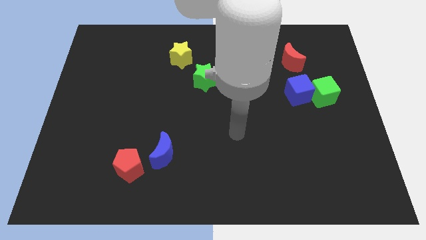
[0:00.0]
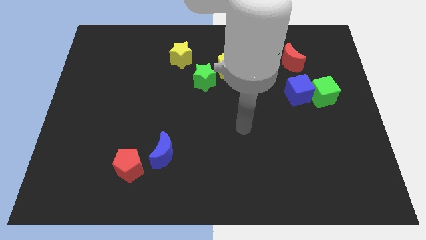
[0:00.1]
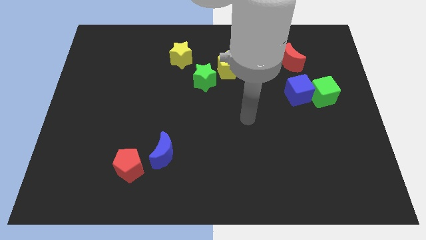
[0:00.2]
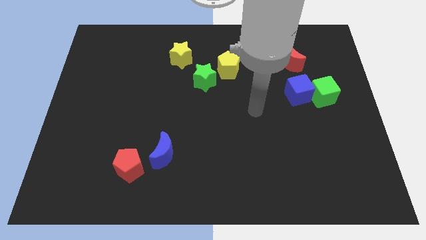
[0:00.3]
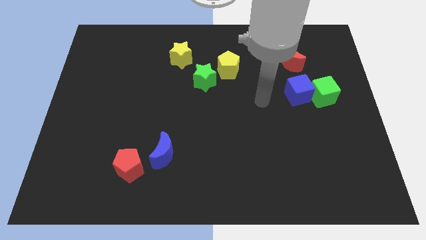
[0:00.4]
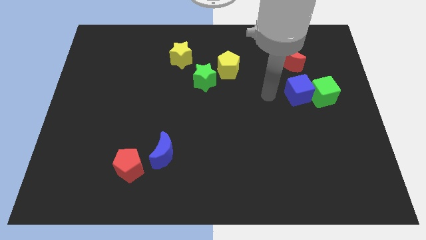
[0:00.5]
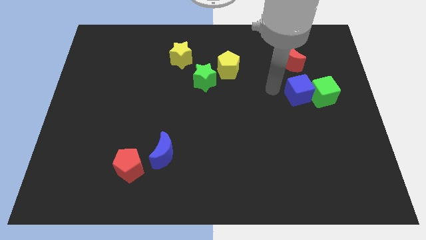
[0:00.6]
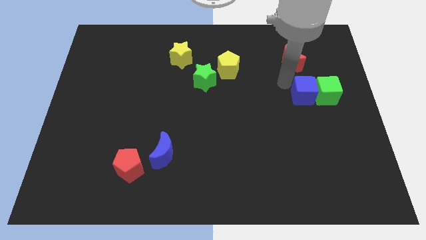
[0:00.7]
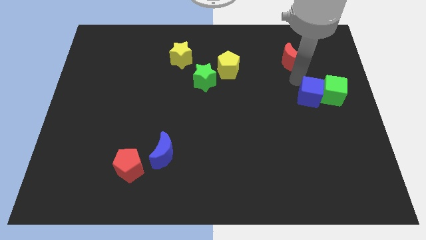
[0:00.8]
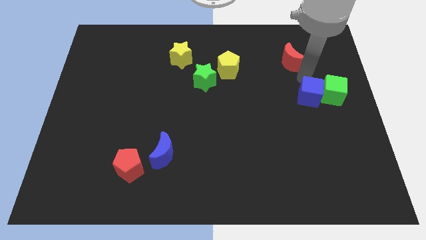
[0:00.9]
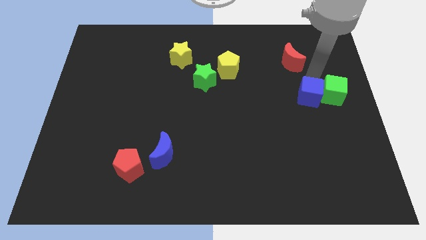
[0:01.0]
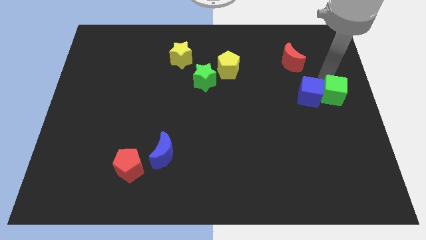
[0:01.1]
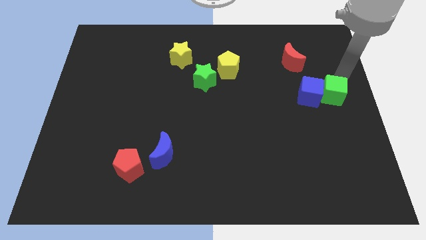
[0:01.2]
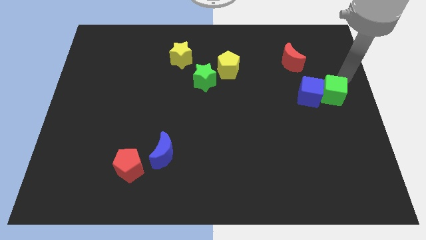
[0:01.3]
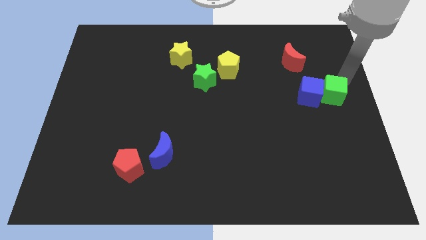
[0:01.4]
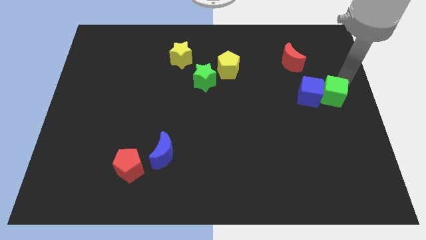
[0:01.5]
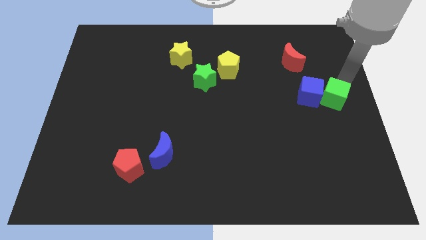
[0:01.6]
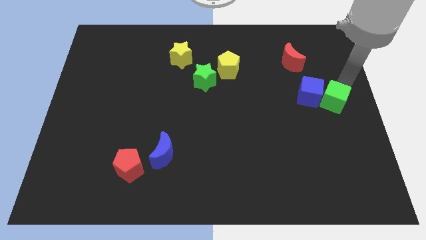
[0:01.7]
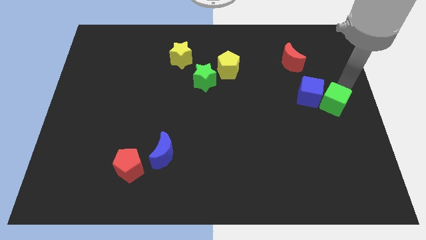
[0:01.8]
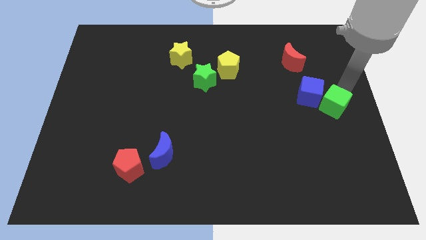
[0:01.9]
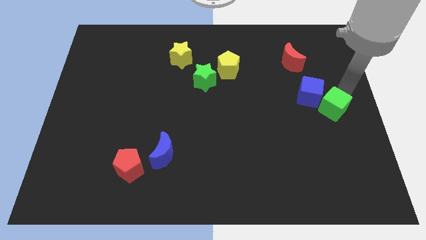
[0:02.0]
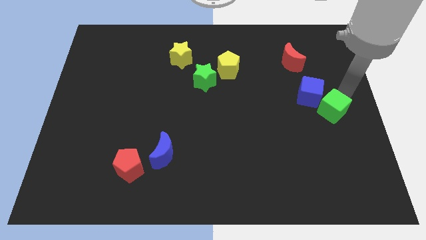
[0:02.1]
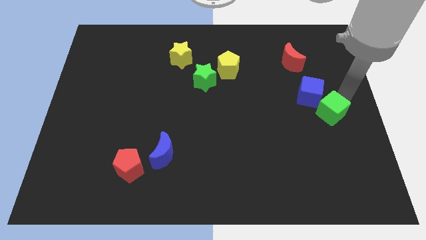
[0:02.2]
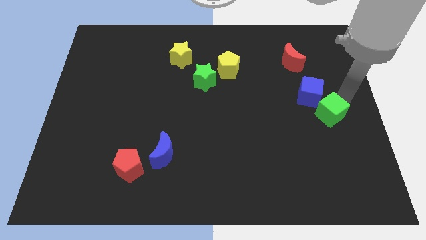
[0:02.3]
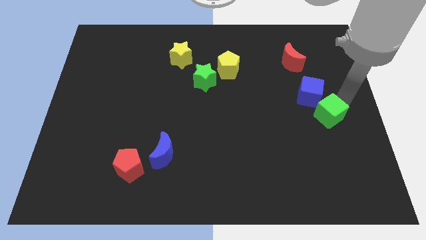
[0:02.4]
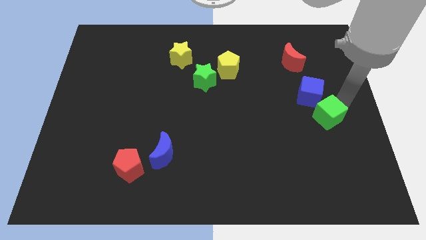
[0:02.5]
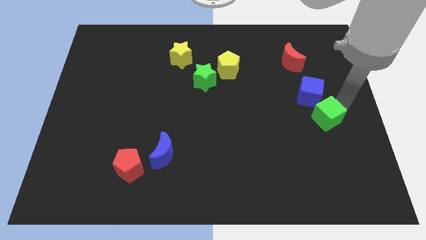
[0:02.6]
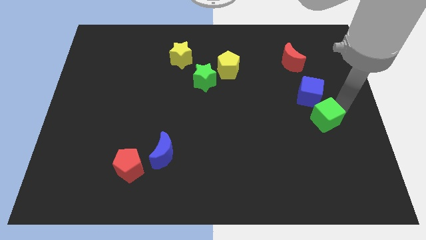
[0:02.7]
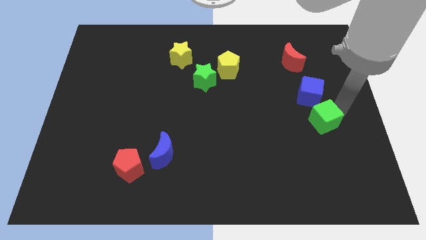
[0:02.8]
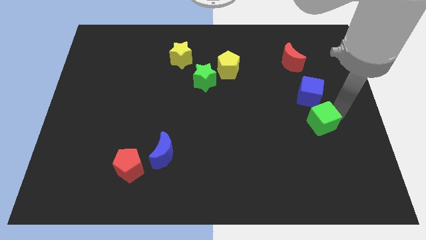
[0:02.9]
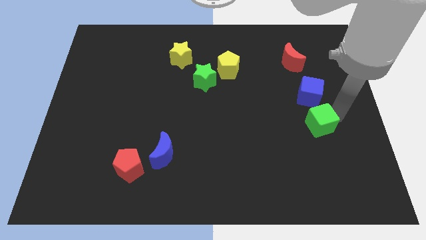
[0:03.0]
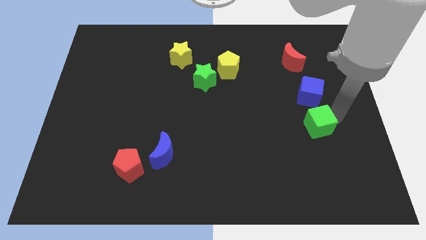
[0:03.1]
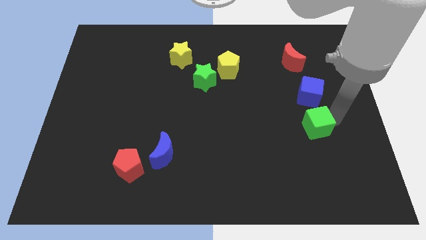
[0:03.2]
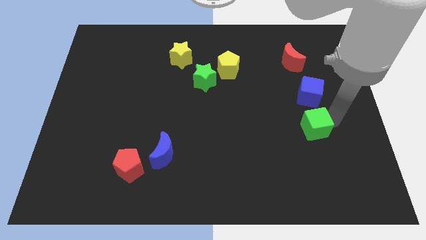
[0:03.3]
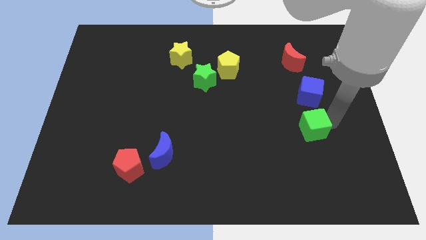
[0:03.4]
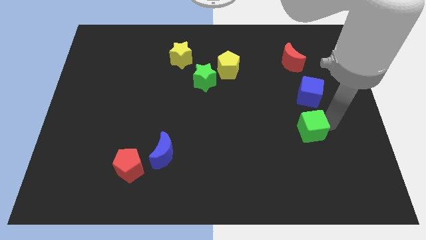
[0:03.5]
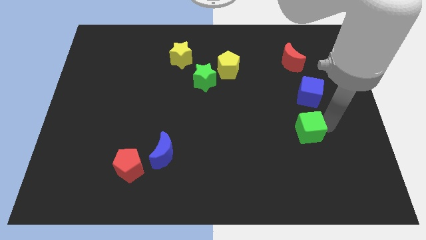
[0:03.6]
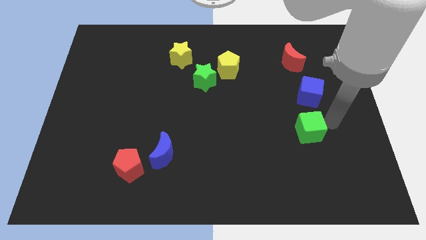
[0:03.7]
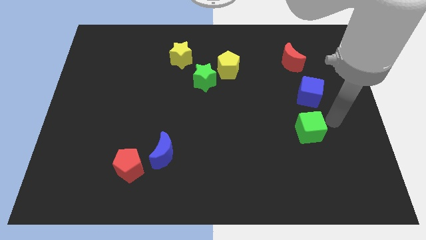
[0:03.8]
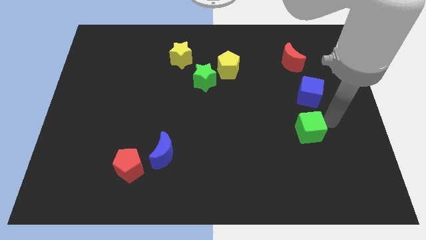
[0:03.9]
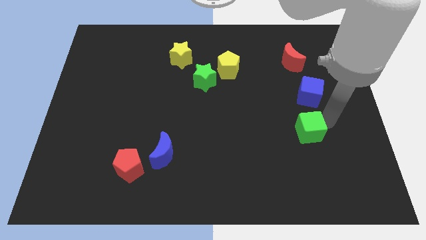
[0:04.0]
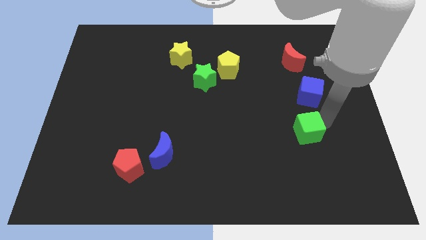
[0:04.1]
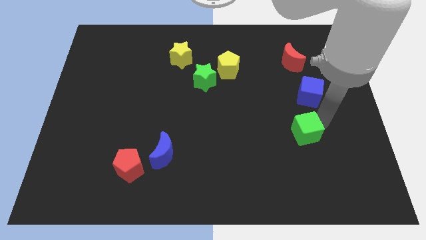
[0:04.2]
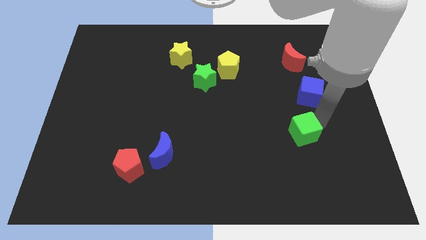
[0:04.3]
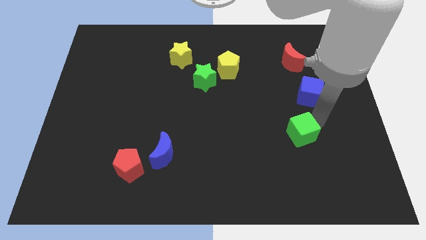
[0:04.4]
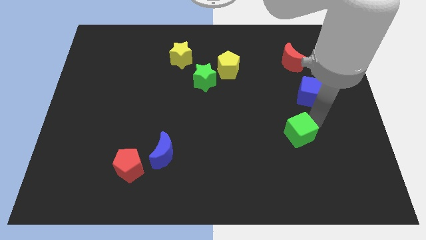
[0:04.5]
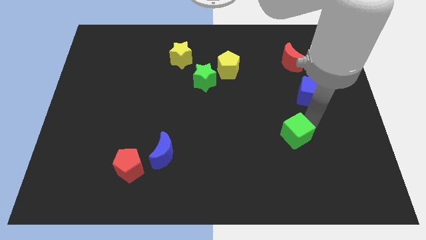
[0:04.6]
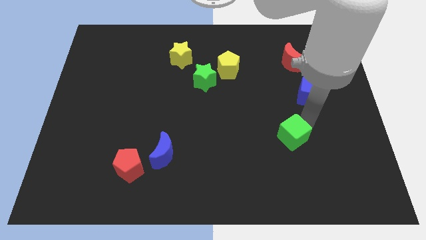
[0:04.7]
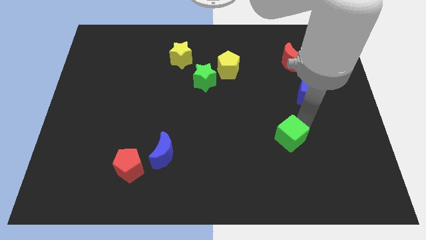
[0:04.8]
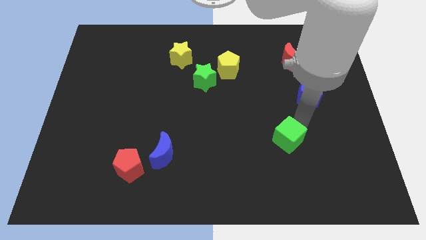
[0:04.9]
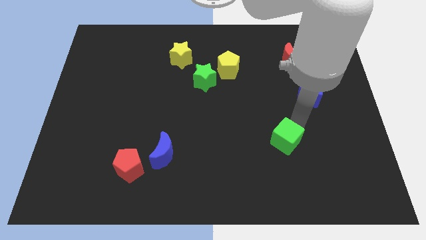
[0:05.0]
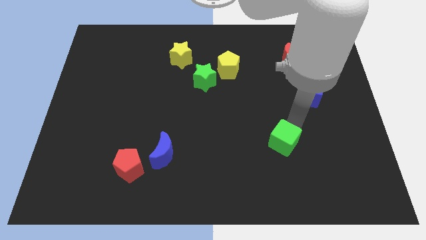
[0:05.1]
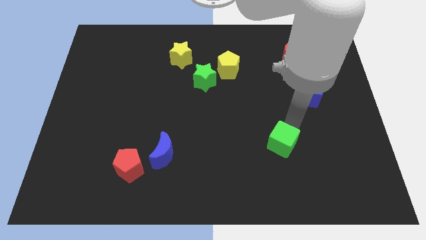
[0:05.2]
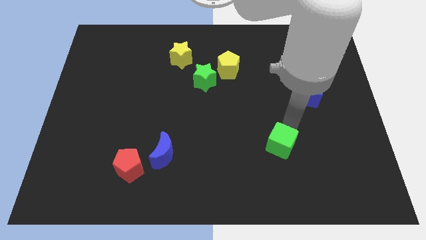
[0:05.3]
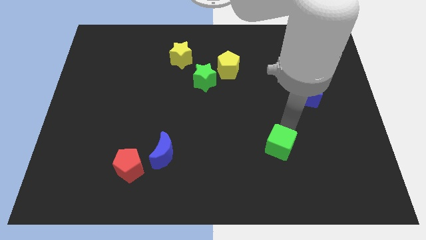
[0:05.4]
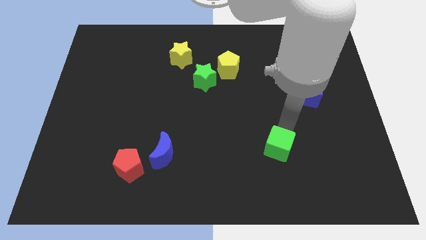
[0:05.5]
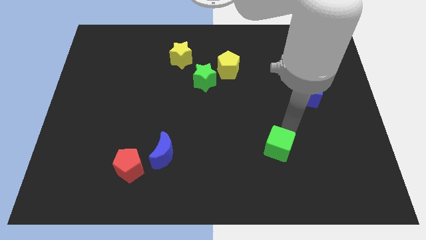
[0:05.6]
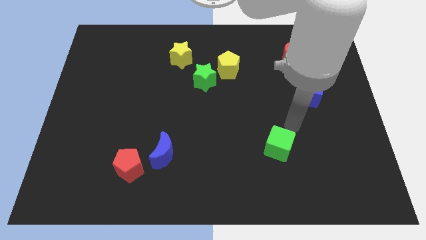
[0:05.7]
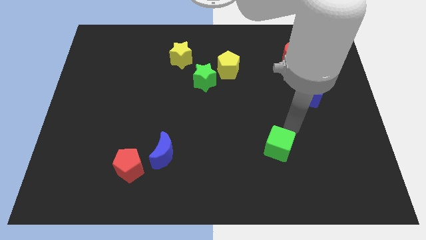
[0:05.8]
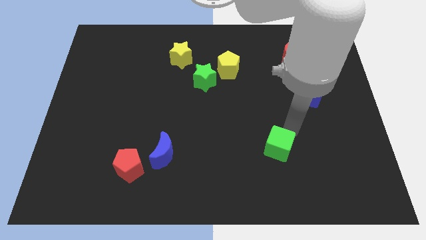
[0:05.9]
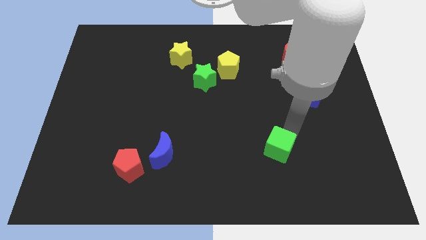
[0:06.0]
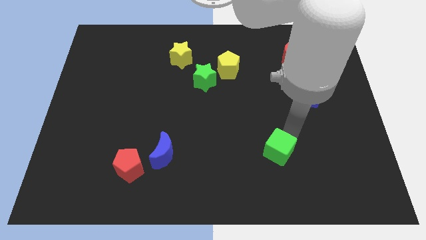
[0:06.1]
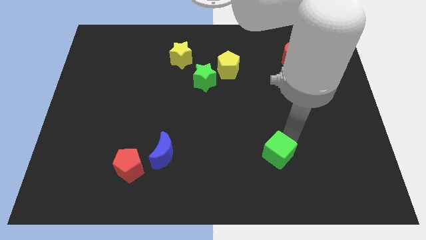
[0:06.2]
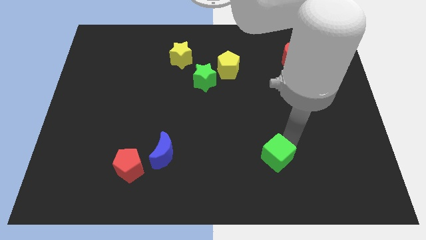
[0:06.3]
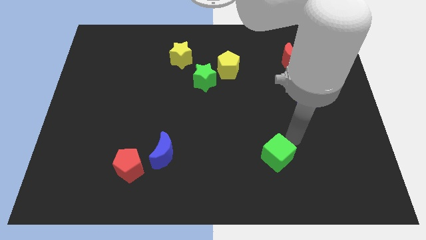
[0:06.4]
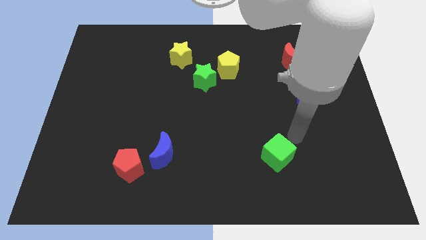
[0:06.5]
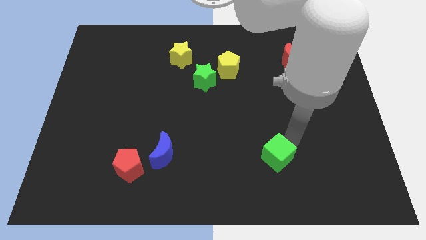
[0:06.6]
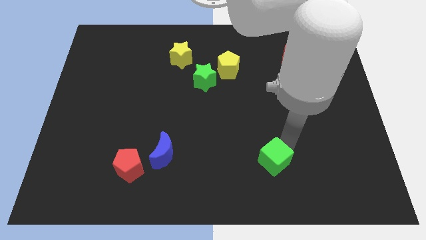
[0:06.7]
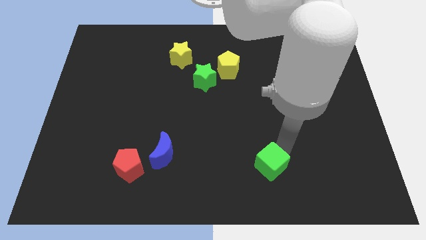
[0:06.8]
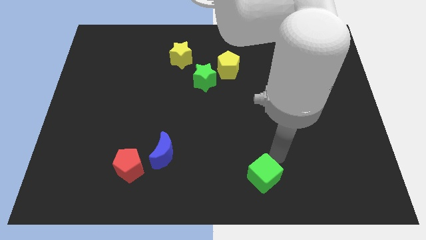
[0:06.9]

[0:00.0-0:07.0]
put the green cube to the bottom side
